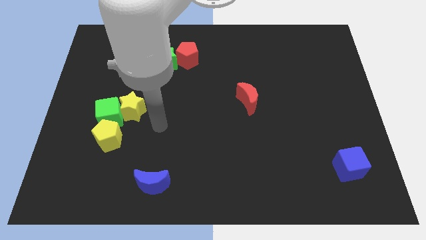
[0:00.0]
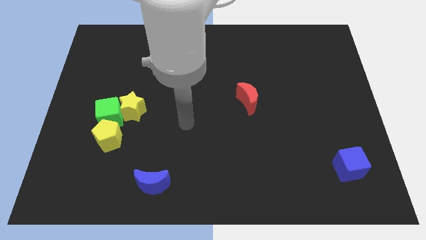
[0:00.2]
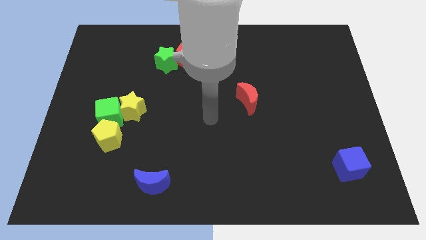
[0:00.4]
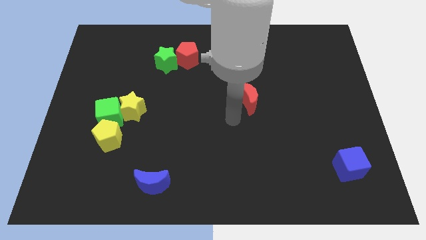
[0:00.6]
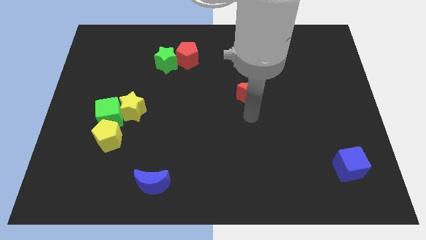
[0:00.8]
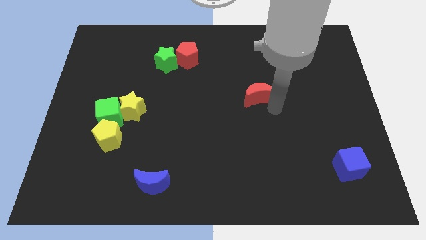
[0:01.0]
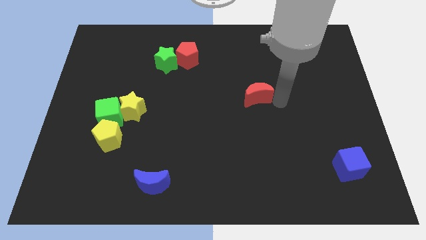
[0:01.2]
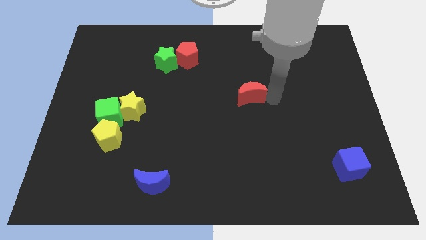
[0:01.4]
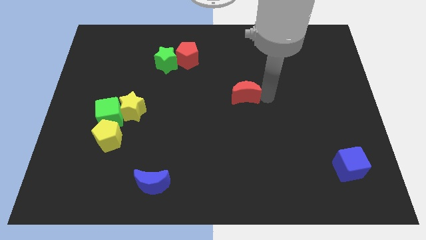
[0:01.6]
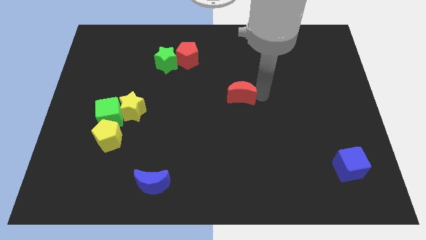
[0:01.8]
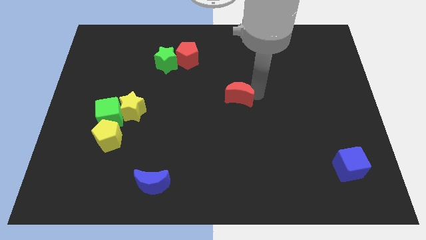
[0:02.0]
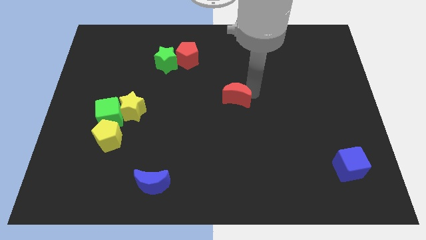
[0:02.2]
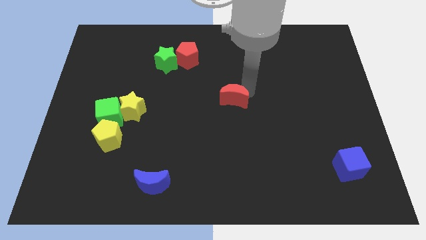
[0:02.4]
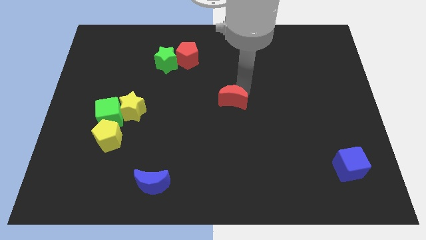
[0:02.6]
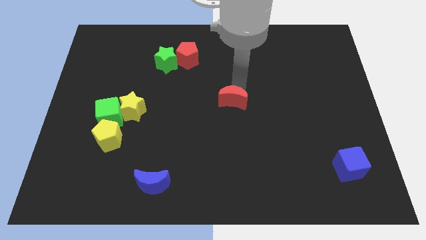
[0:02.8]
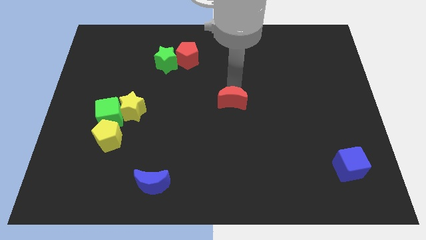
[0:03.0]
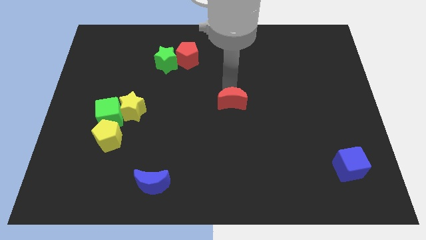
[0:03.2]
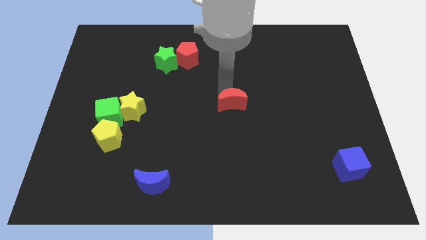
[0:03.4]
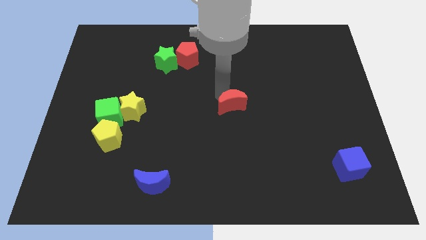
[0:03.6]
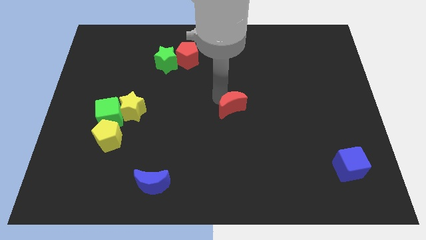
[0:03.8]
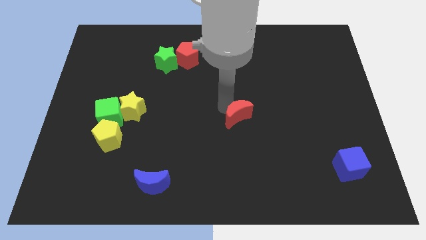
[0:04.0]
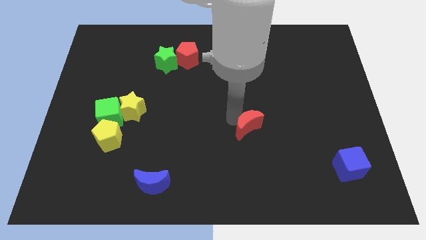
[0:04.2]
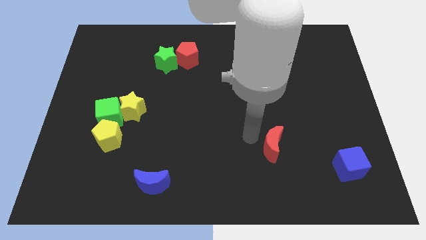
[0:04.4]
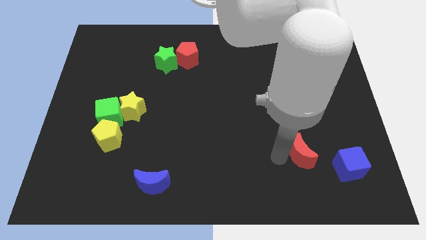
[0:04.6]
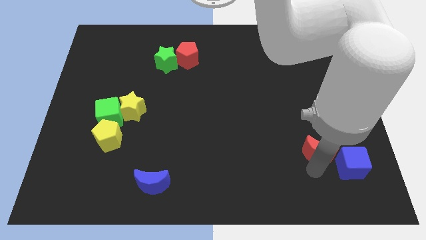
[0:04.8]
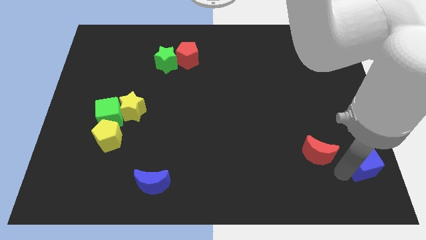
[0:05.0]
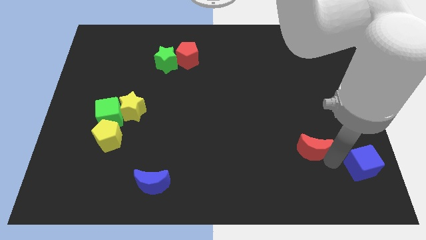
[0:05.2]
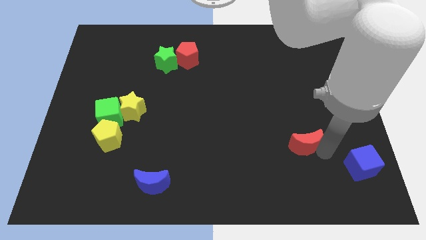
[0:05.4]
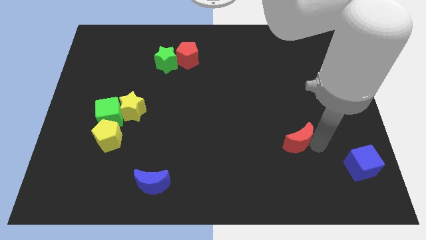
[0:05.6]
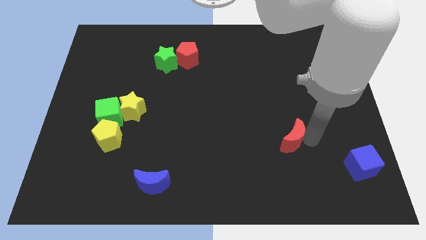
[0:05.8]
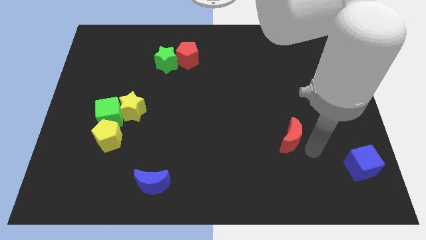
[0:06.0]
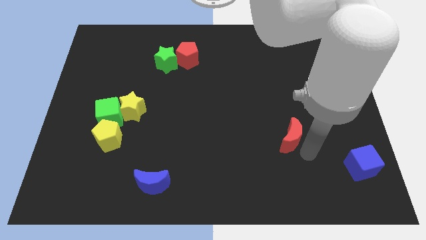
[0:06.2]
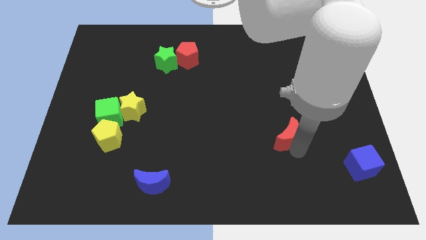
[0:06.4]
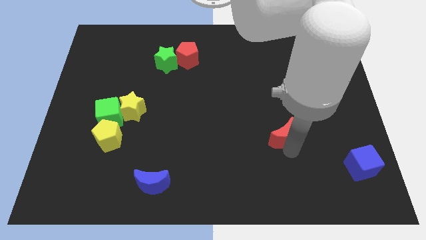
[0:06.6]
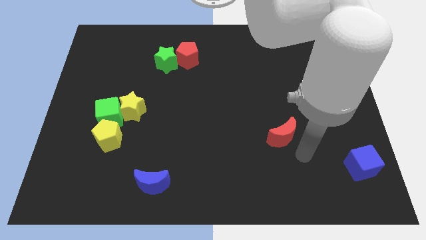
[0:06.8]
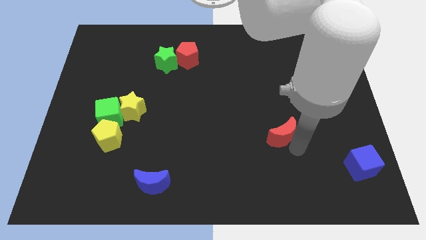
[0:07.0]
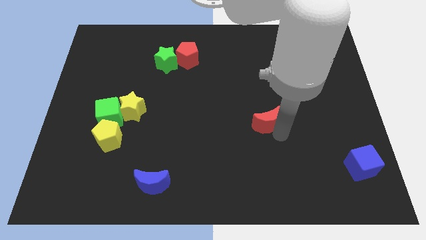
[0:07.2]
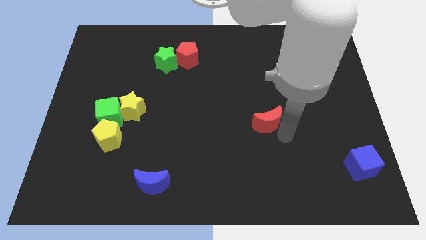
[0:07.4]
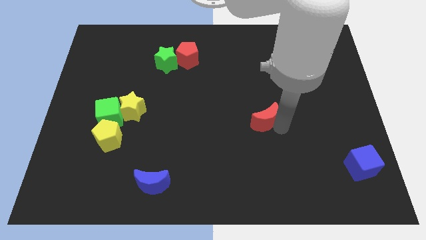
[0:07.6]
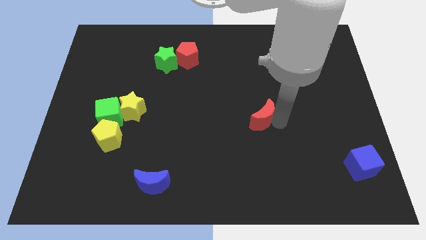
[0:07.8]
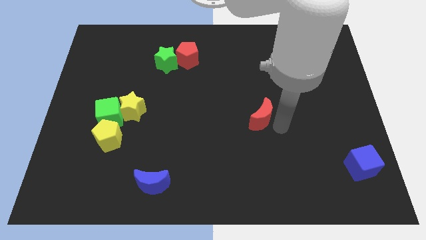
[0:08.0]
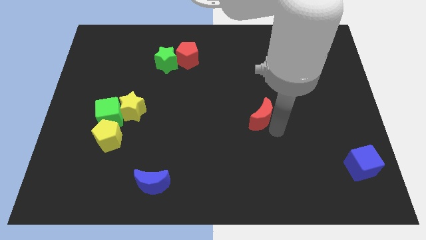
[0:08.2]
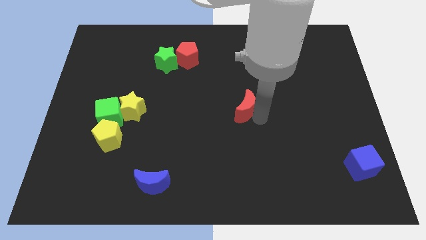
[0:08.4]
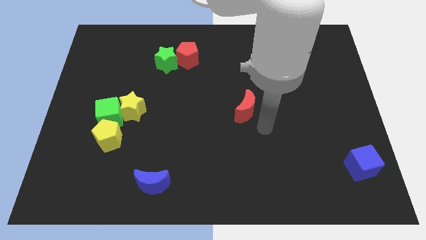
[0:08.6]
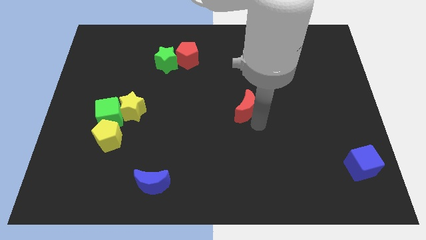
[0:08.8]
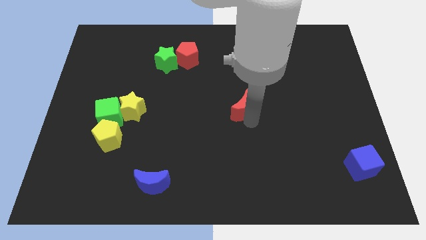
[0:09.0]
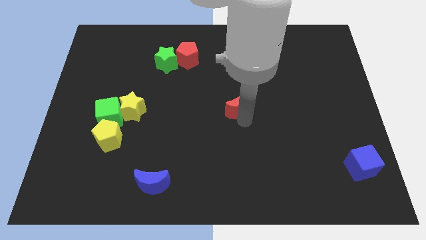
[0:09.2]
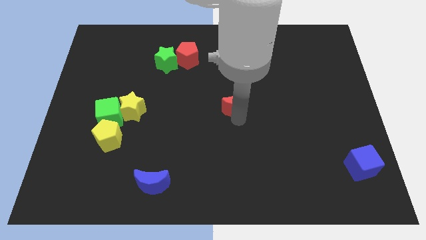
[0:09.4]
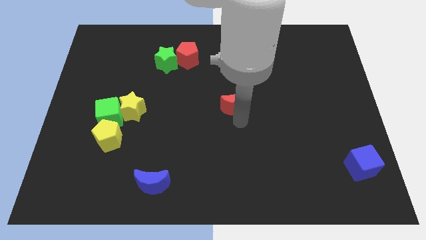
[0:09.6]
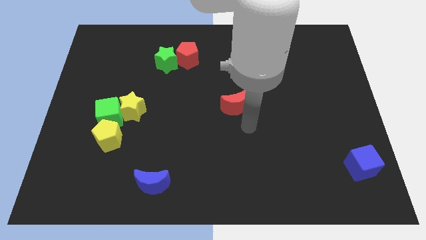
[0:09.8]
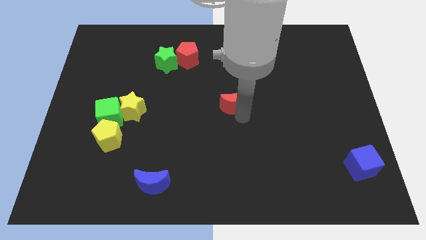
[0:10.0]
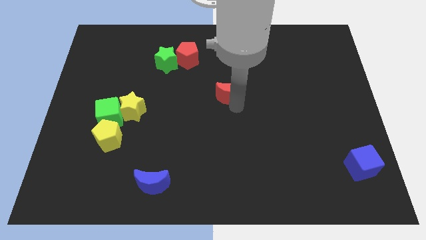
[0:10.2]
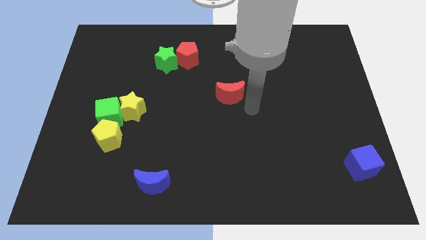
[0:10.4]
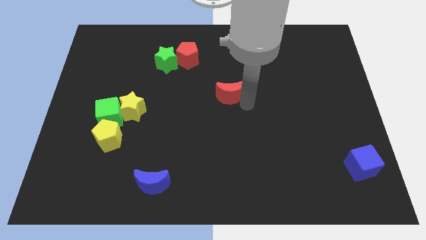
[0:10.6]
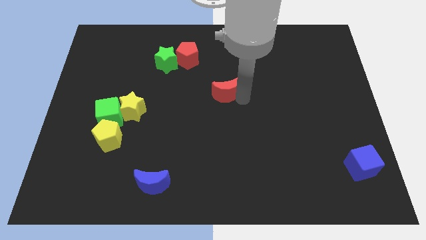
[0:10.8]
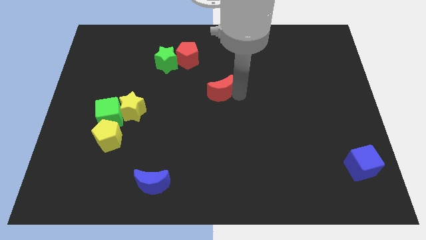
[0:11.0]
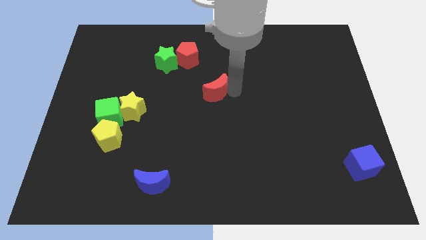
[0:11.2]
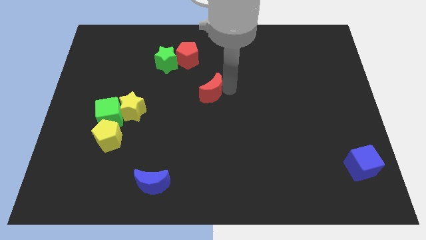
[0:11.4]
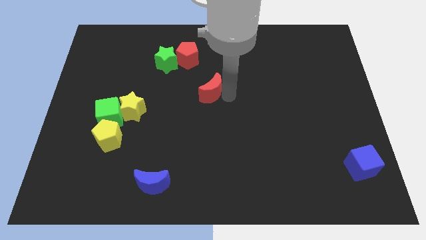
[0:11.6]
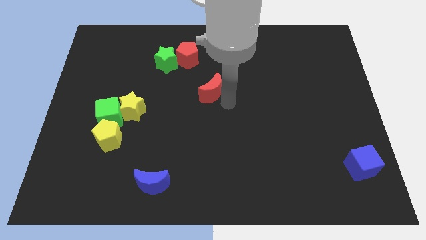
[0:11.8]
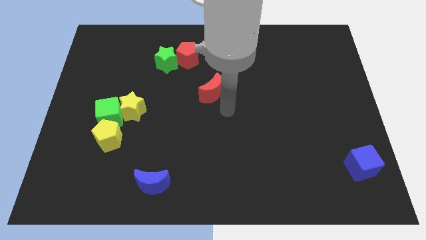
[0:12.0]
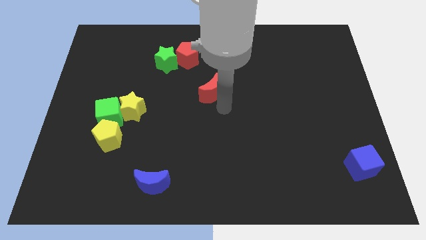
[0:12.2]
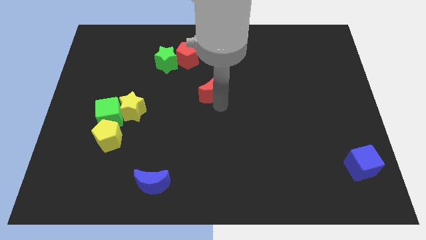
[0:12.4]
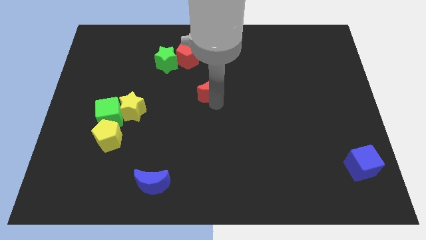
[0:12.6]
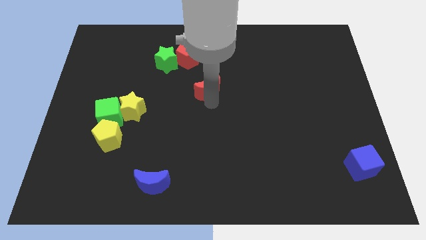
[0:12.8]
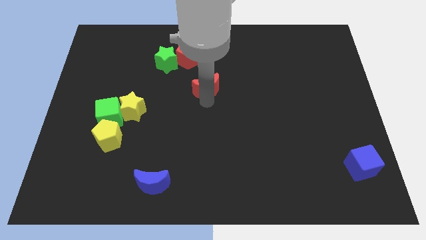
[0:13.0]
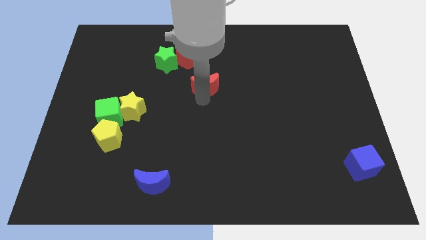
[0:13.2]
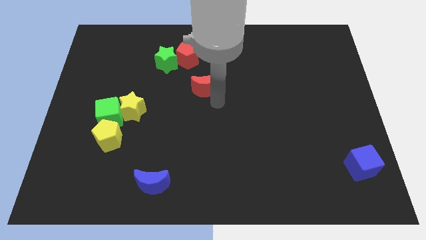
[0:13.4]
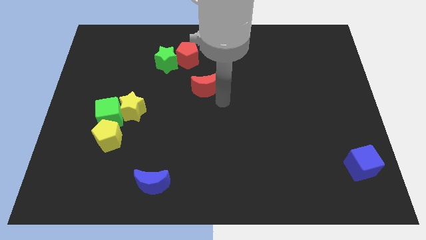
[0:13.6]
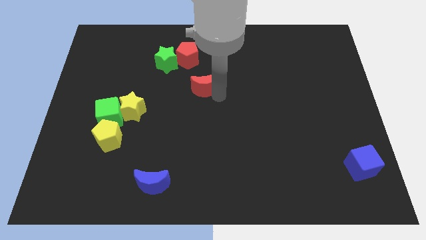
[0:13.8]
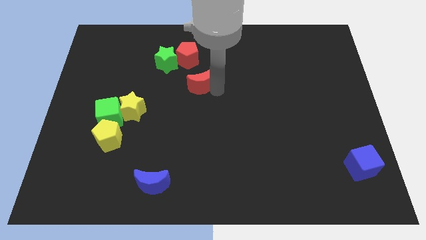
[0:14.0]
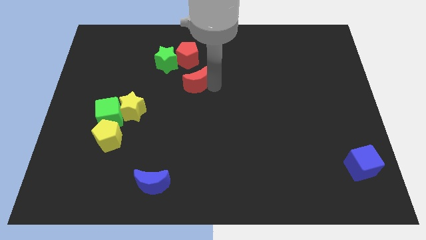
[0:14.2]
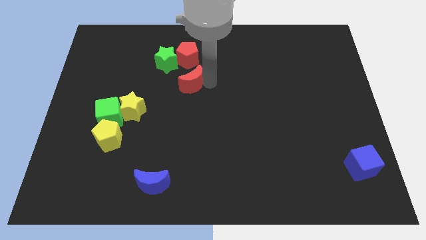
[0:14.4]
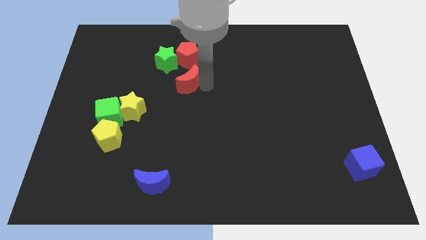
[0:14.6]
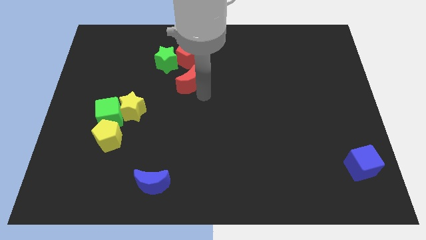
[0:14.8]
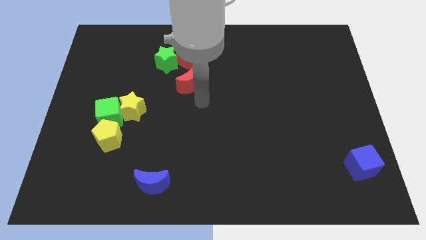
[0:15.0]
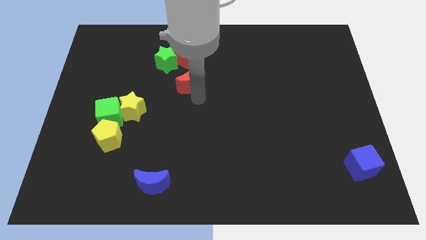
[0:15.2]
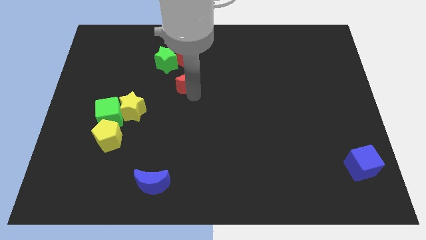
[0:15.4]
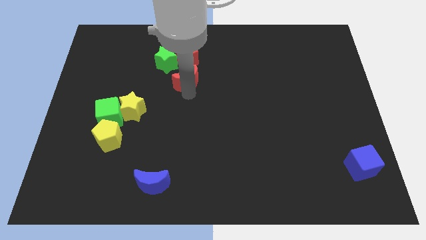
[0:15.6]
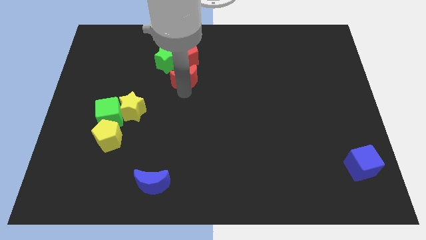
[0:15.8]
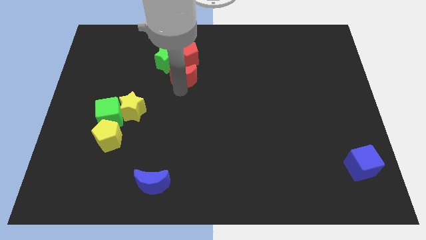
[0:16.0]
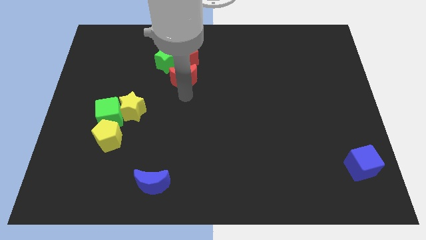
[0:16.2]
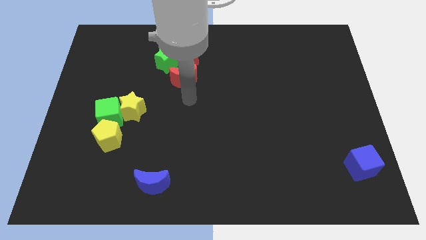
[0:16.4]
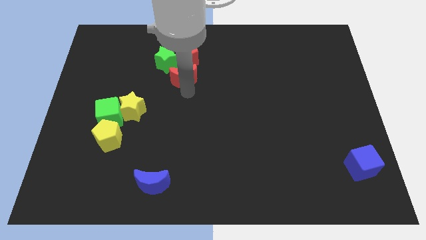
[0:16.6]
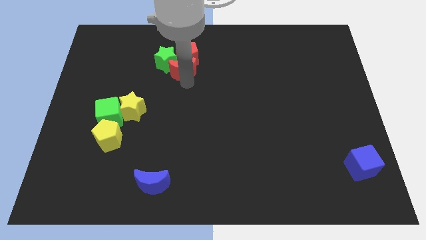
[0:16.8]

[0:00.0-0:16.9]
push the red moon close to the green star
